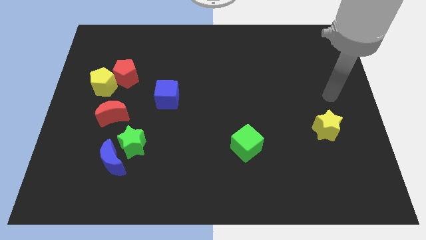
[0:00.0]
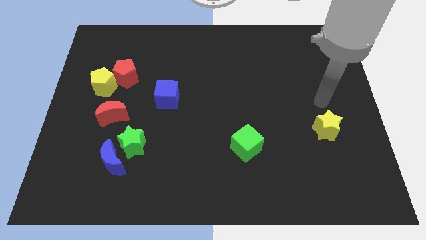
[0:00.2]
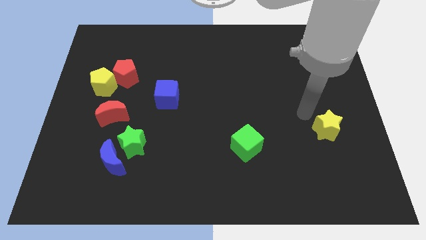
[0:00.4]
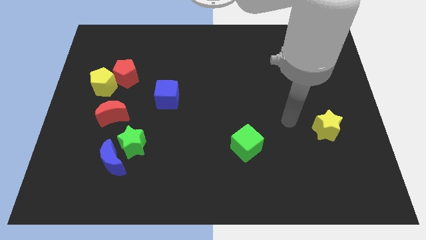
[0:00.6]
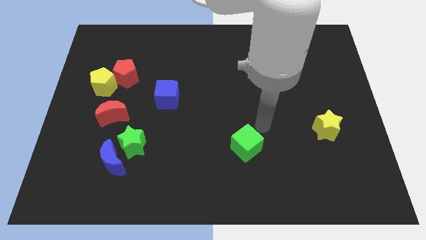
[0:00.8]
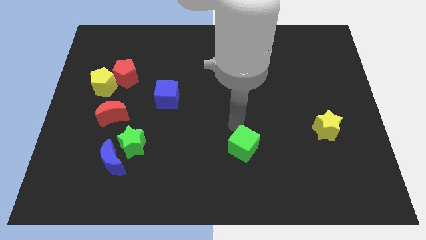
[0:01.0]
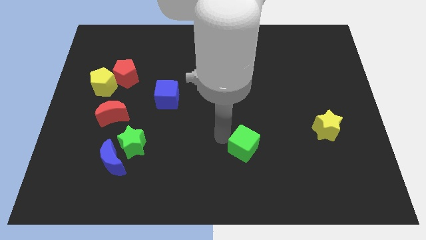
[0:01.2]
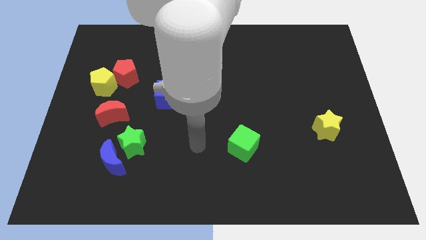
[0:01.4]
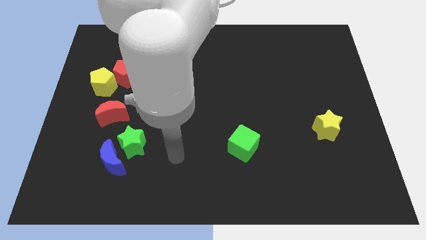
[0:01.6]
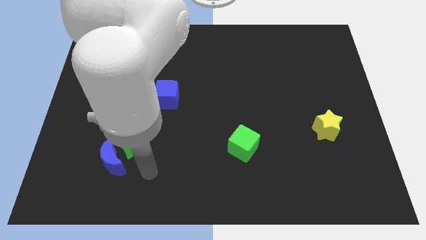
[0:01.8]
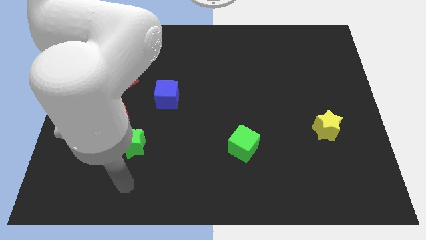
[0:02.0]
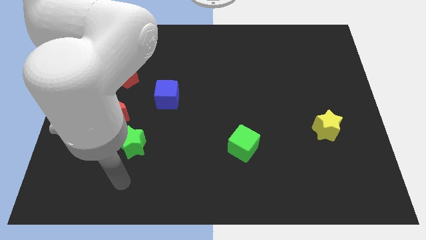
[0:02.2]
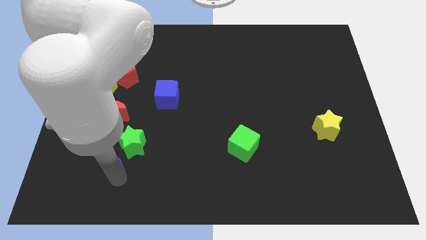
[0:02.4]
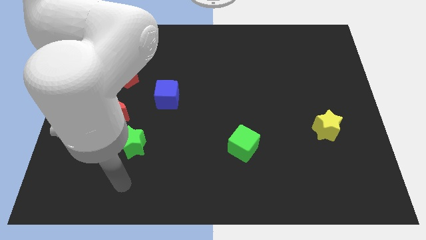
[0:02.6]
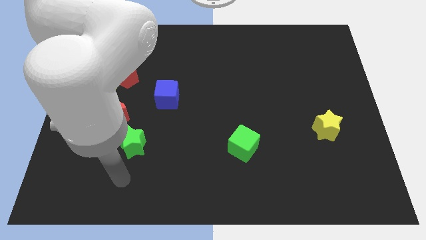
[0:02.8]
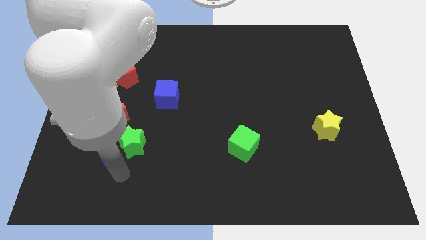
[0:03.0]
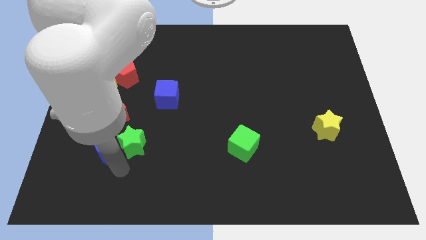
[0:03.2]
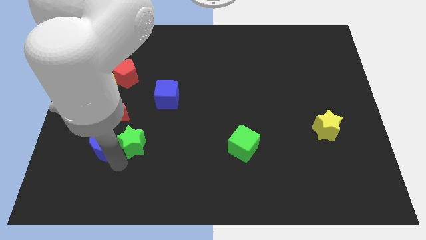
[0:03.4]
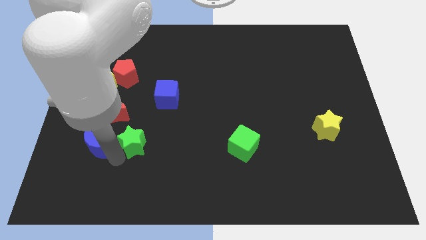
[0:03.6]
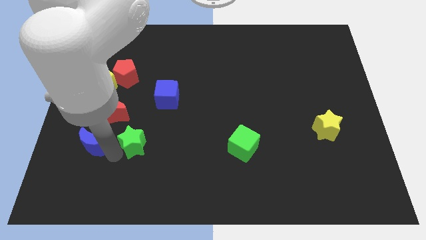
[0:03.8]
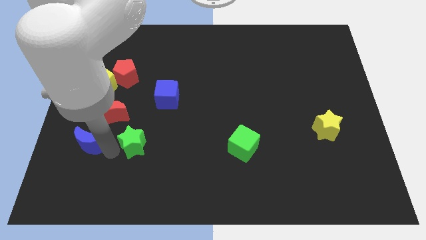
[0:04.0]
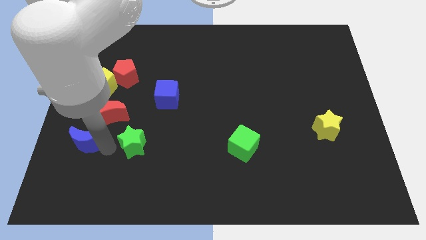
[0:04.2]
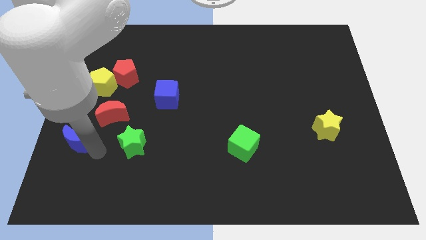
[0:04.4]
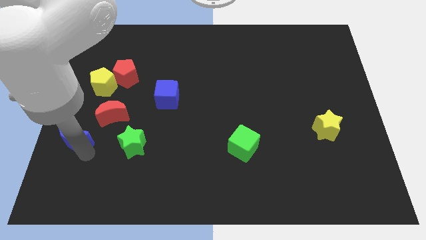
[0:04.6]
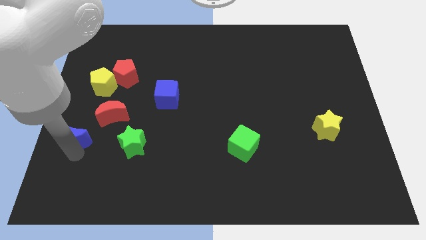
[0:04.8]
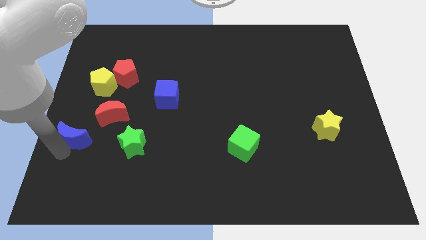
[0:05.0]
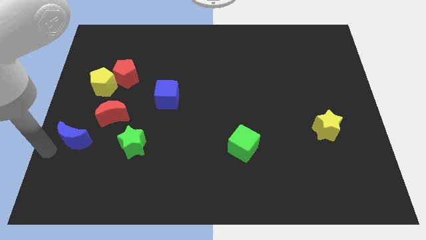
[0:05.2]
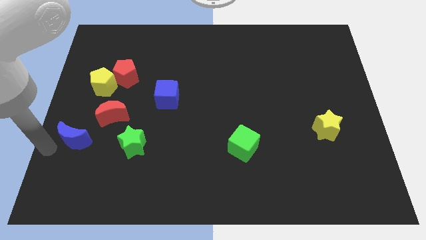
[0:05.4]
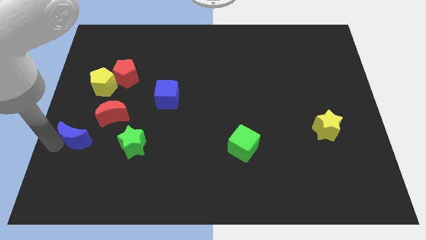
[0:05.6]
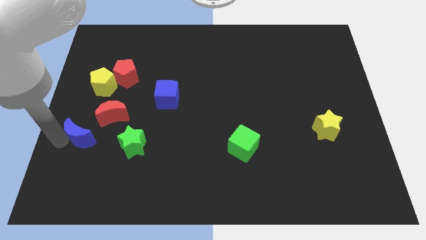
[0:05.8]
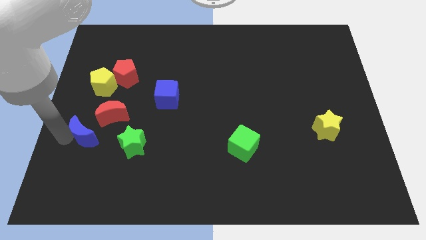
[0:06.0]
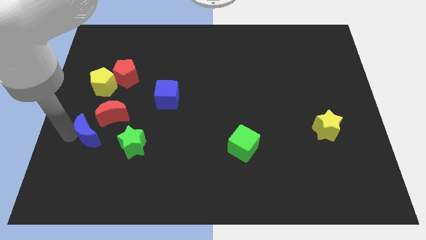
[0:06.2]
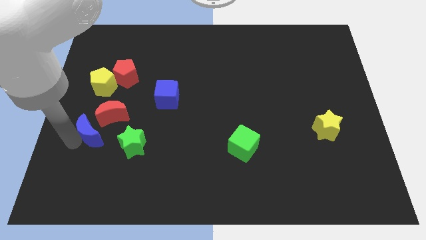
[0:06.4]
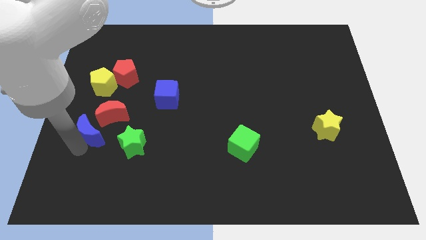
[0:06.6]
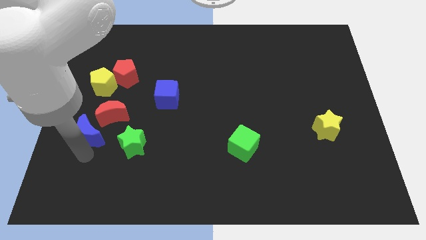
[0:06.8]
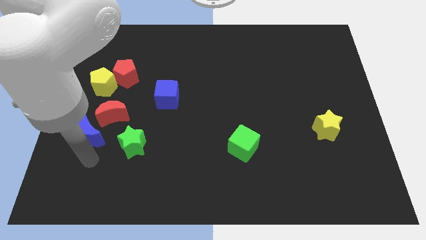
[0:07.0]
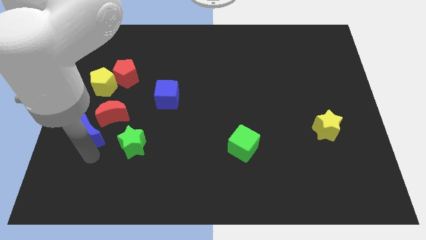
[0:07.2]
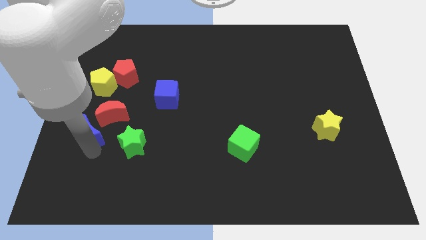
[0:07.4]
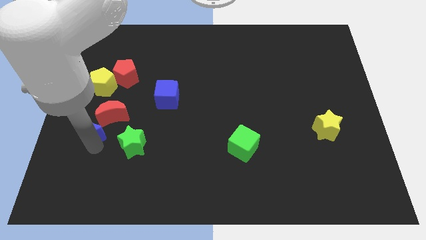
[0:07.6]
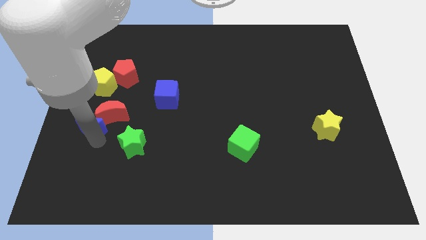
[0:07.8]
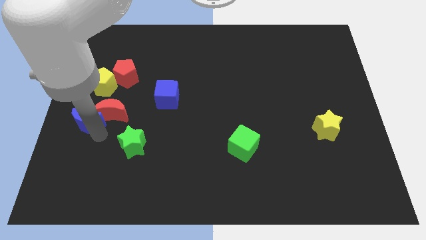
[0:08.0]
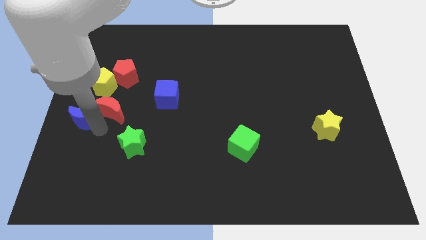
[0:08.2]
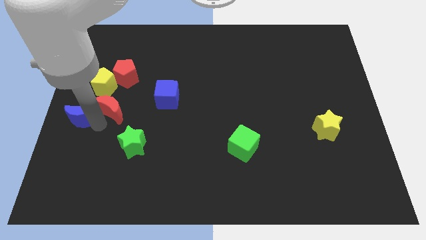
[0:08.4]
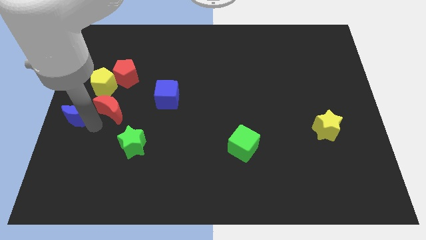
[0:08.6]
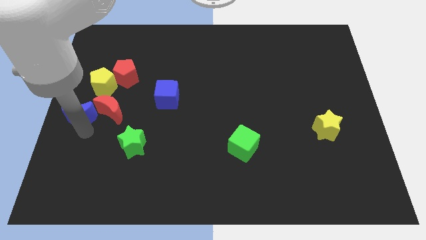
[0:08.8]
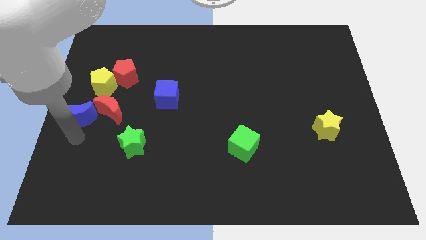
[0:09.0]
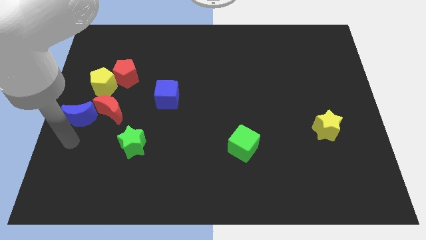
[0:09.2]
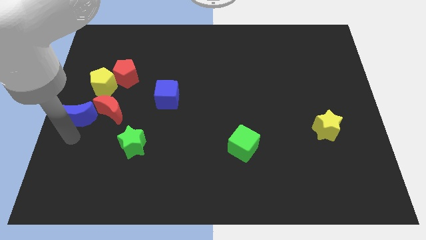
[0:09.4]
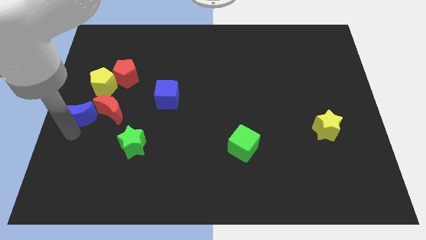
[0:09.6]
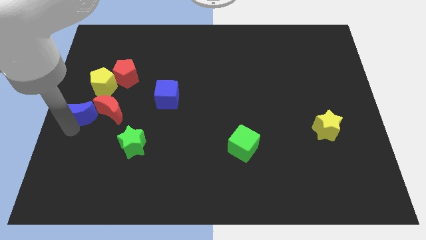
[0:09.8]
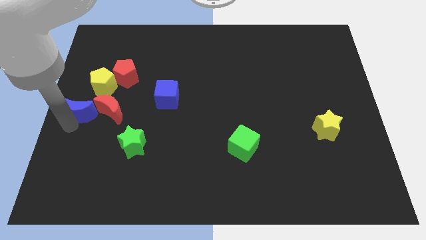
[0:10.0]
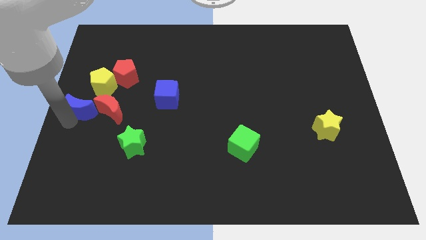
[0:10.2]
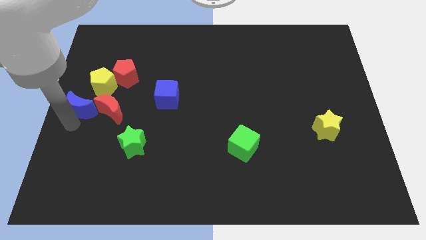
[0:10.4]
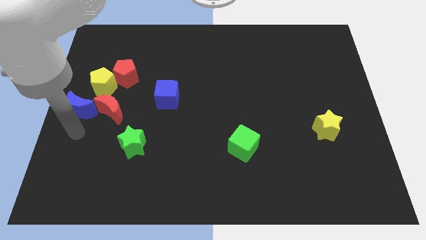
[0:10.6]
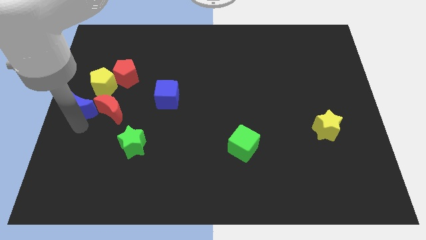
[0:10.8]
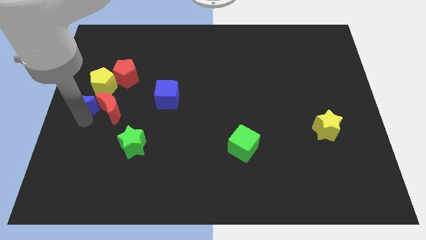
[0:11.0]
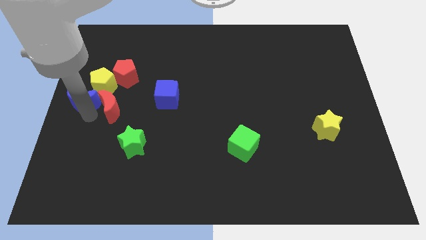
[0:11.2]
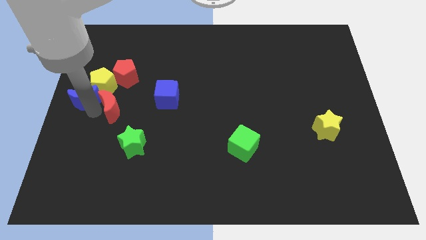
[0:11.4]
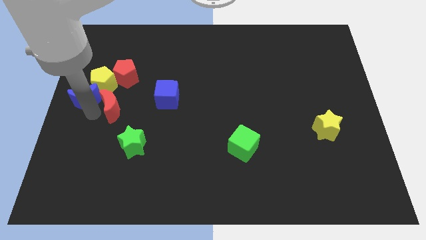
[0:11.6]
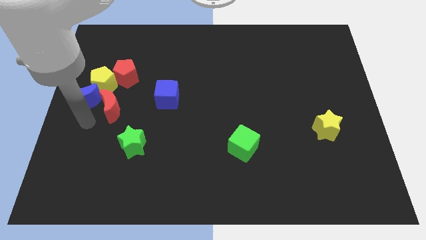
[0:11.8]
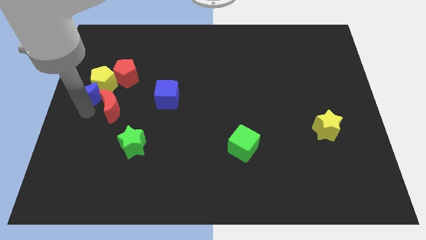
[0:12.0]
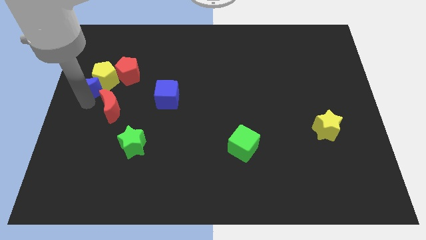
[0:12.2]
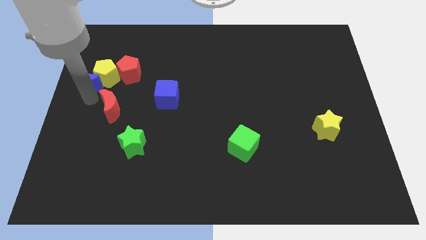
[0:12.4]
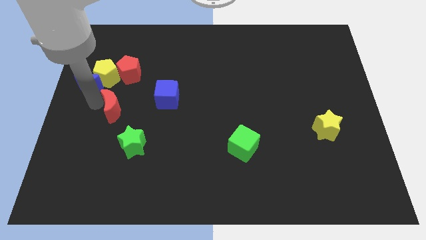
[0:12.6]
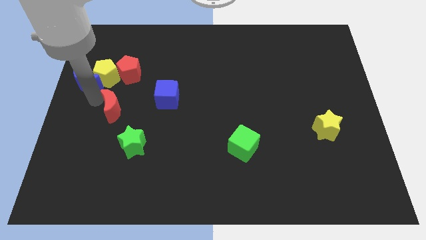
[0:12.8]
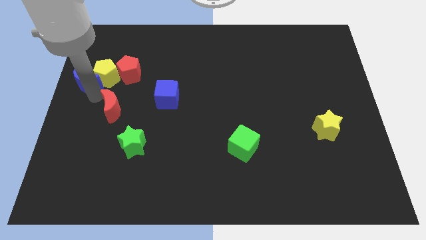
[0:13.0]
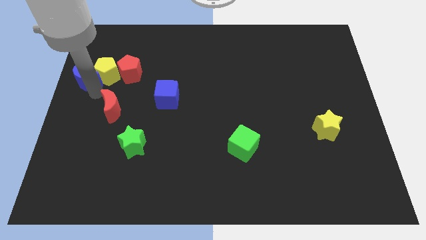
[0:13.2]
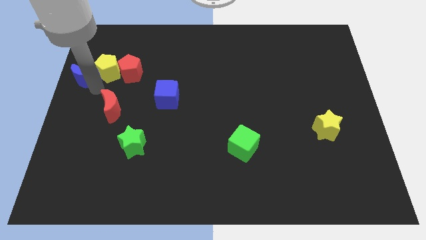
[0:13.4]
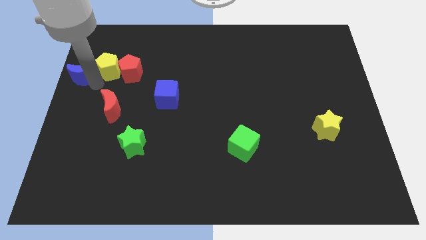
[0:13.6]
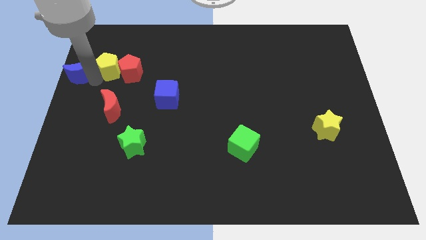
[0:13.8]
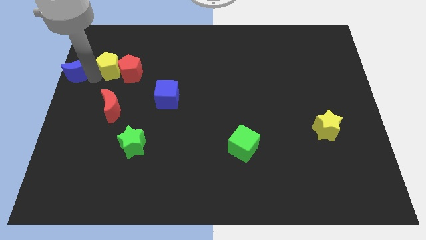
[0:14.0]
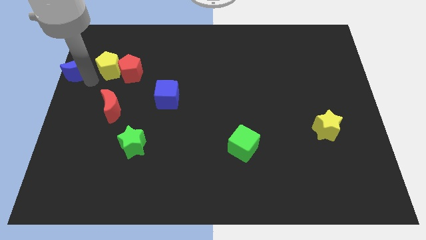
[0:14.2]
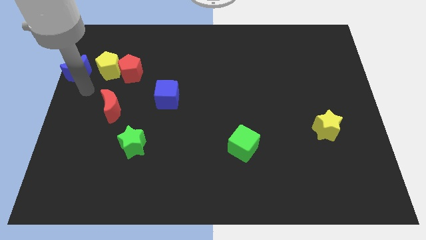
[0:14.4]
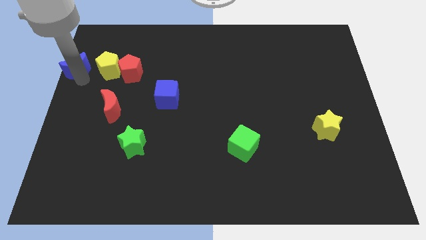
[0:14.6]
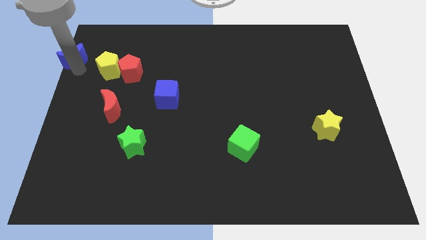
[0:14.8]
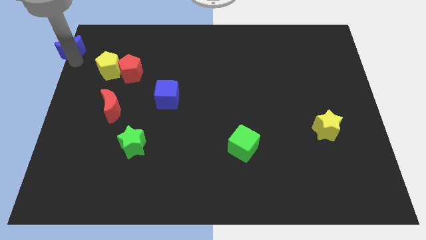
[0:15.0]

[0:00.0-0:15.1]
move the blue moon to the upper left corner
